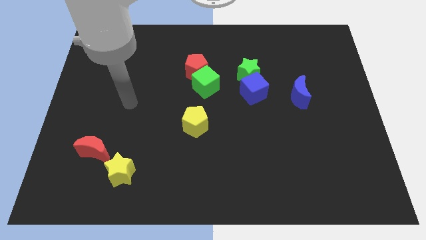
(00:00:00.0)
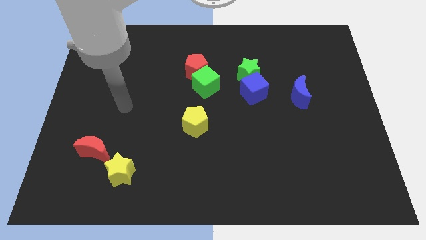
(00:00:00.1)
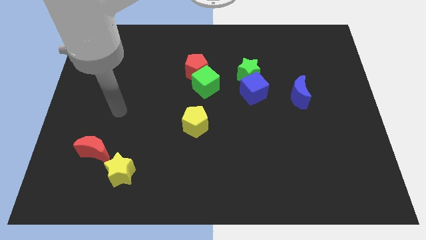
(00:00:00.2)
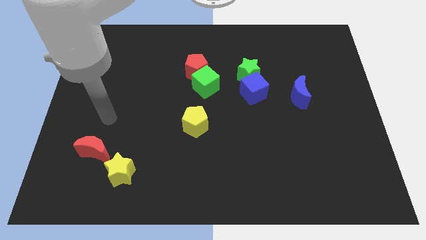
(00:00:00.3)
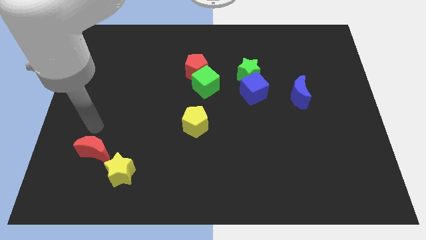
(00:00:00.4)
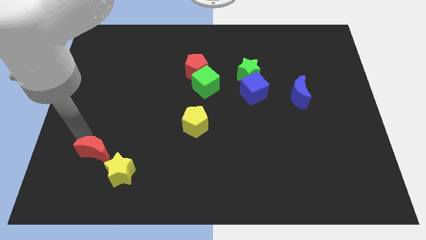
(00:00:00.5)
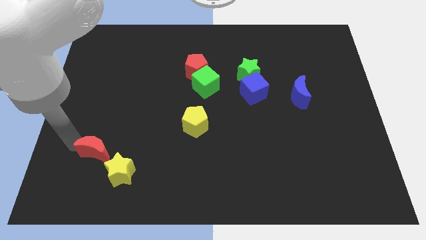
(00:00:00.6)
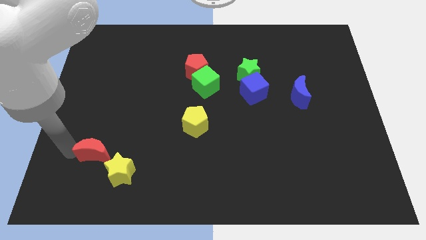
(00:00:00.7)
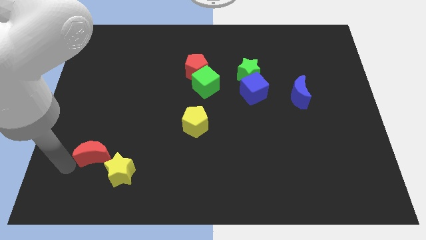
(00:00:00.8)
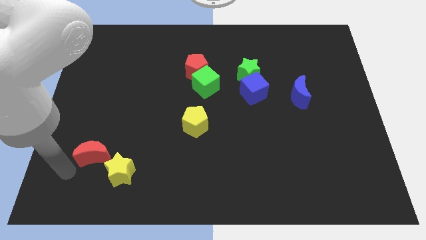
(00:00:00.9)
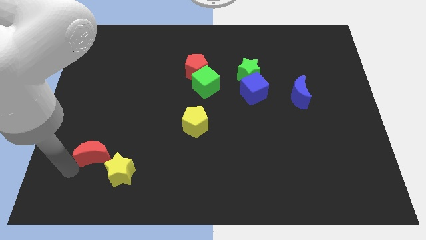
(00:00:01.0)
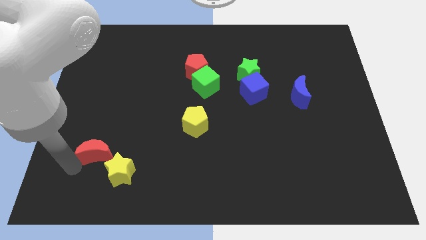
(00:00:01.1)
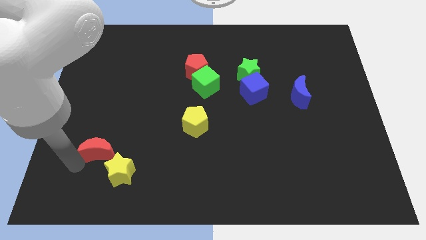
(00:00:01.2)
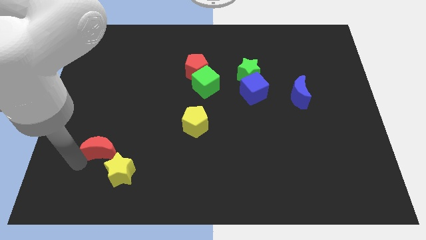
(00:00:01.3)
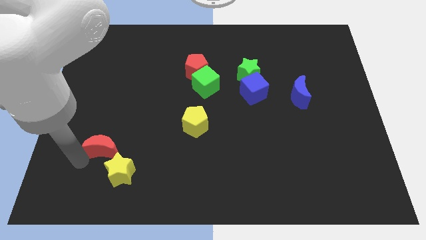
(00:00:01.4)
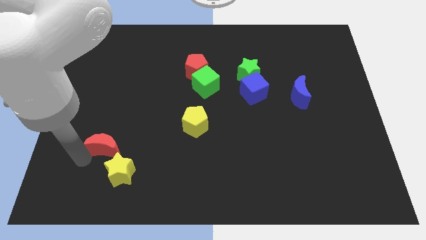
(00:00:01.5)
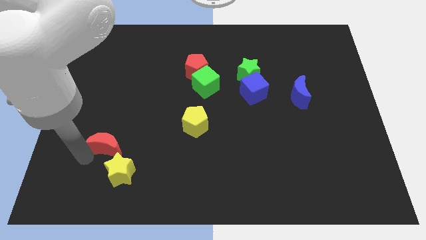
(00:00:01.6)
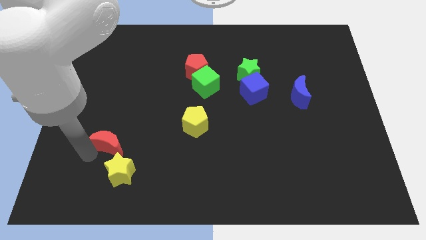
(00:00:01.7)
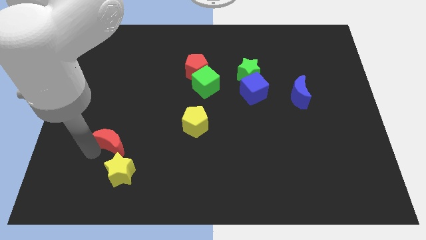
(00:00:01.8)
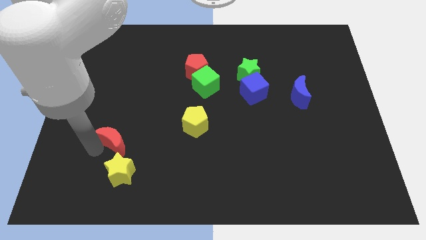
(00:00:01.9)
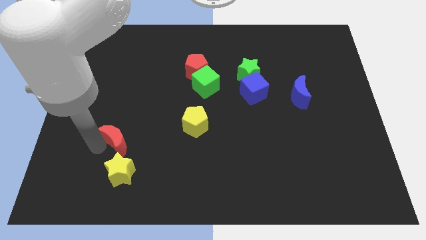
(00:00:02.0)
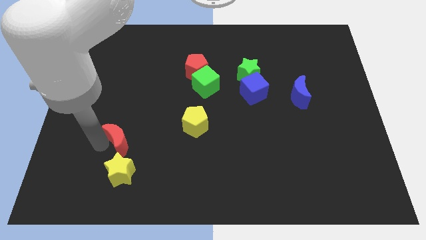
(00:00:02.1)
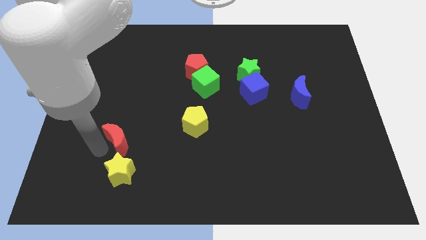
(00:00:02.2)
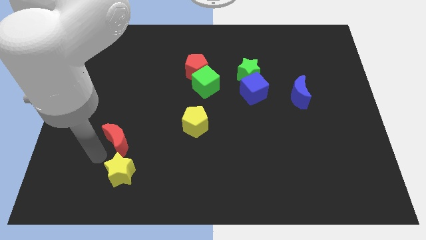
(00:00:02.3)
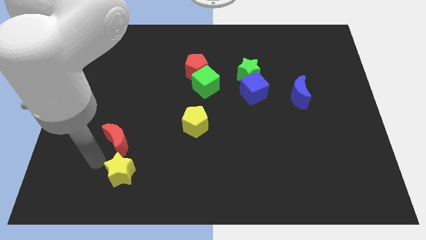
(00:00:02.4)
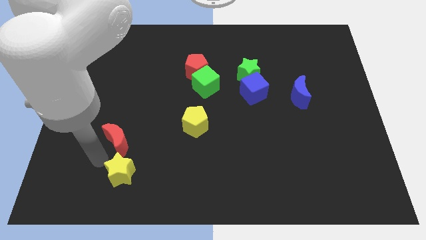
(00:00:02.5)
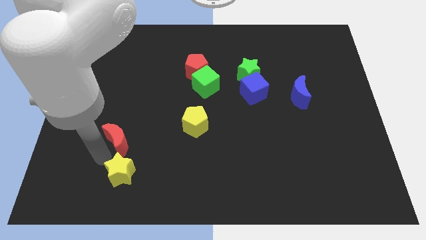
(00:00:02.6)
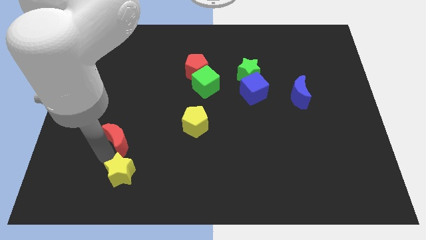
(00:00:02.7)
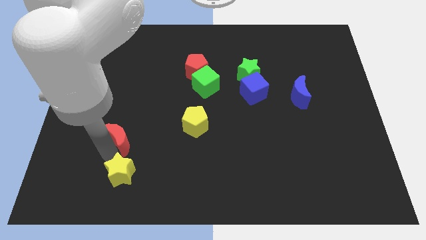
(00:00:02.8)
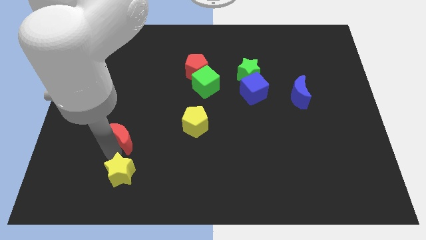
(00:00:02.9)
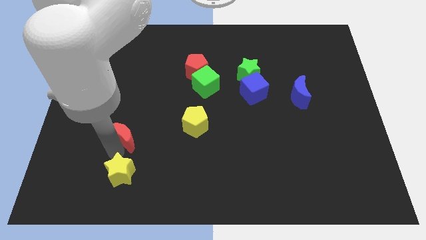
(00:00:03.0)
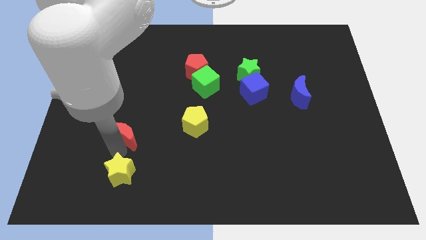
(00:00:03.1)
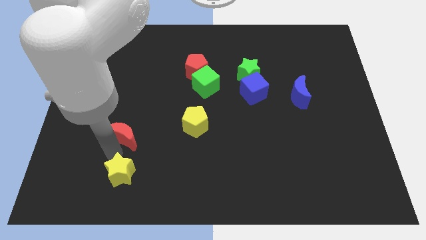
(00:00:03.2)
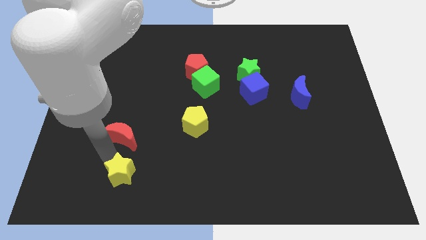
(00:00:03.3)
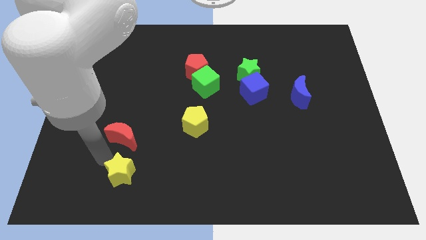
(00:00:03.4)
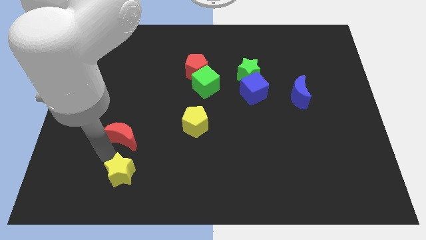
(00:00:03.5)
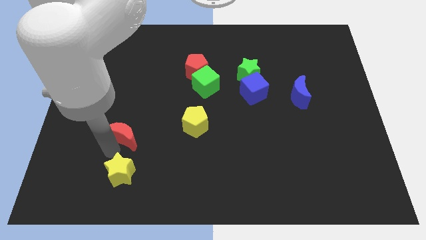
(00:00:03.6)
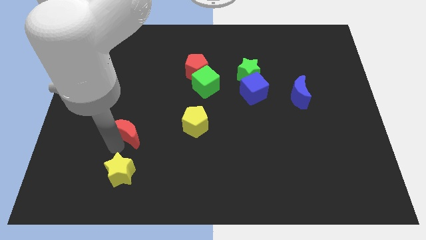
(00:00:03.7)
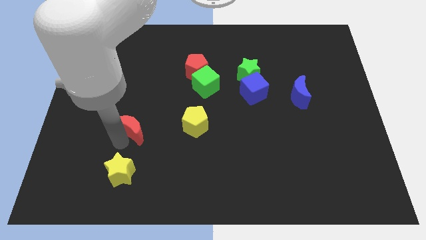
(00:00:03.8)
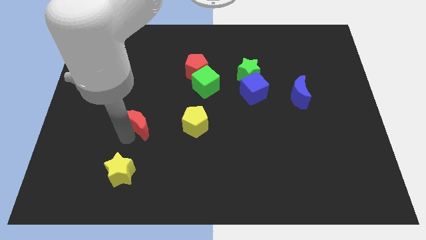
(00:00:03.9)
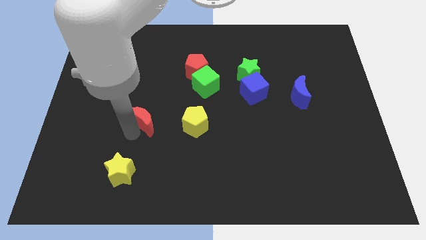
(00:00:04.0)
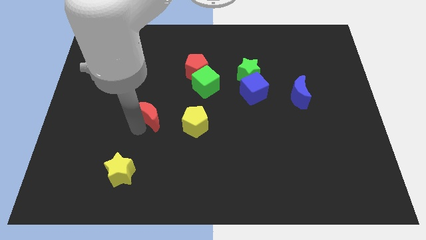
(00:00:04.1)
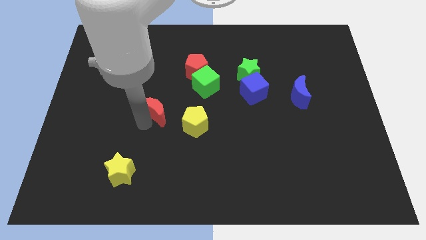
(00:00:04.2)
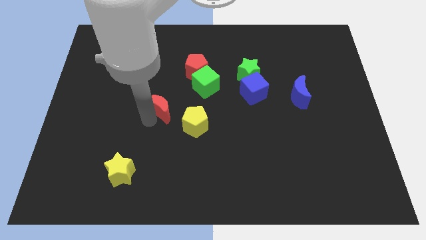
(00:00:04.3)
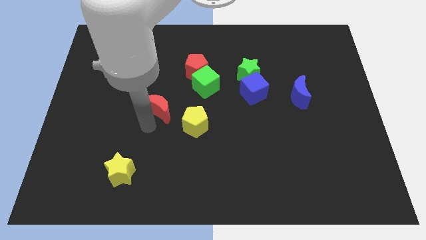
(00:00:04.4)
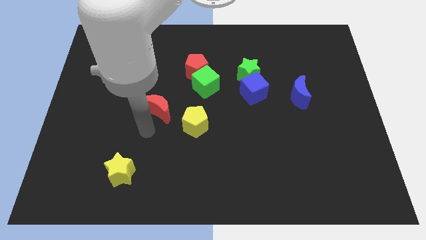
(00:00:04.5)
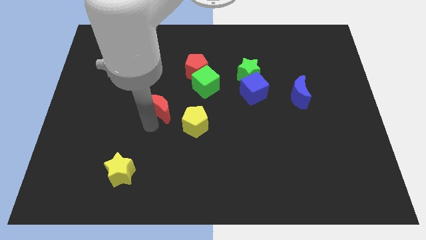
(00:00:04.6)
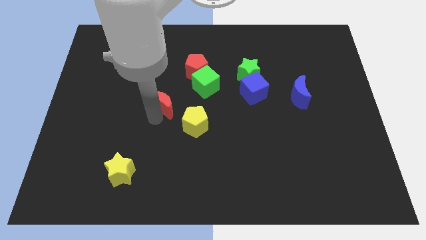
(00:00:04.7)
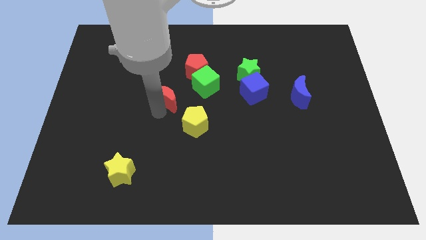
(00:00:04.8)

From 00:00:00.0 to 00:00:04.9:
slide the red moon diagonally down and to the left of the red pentagon

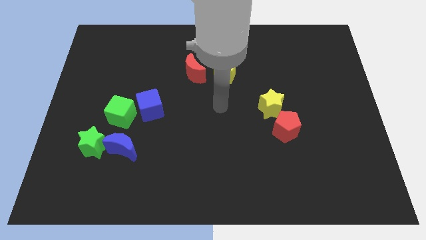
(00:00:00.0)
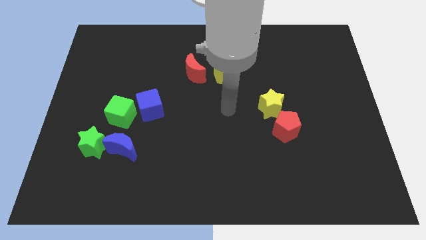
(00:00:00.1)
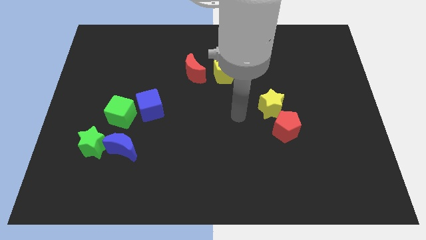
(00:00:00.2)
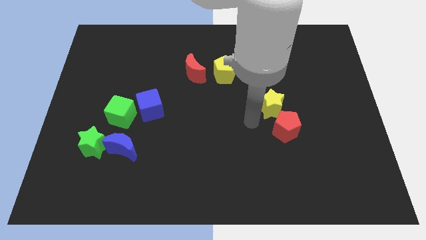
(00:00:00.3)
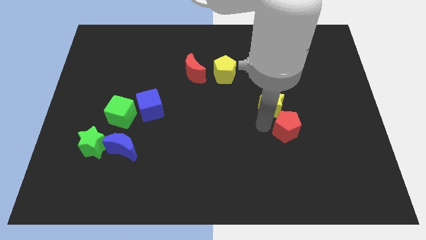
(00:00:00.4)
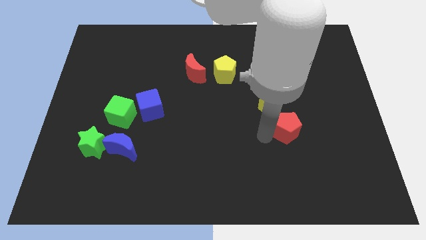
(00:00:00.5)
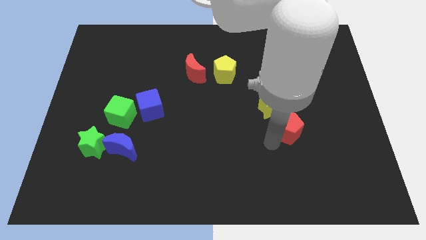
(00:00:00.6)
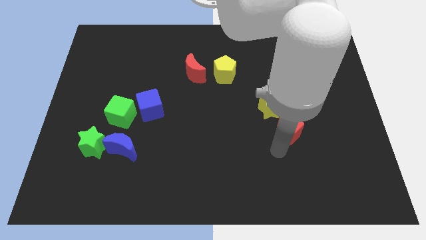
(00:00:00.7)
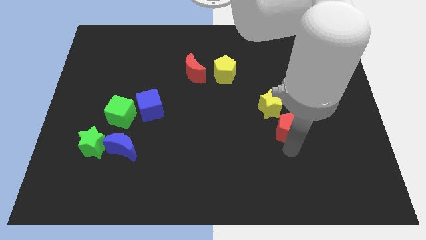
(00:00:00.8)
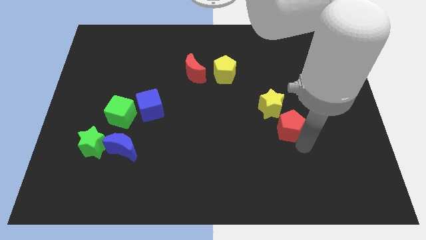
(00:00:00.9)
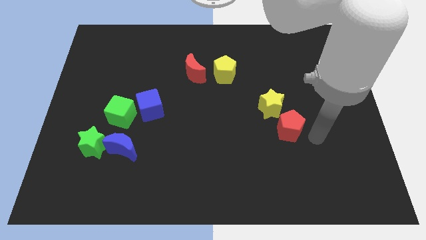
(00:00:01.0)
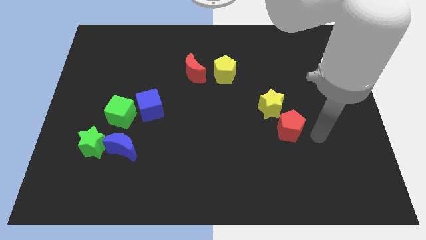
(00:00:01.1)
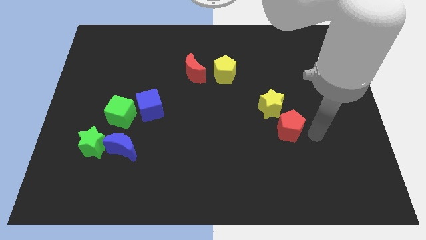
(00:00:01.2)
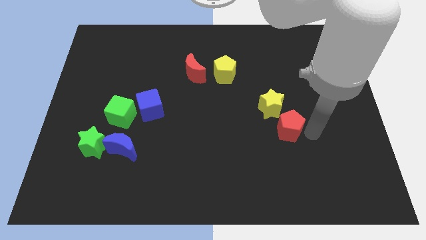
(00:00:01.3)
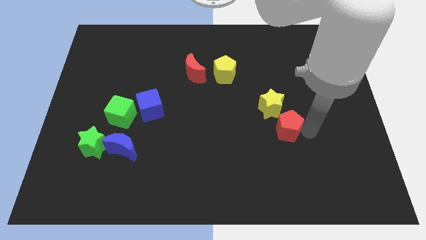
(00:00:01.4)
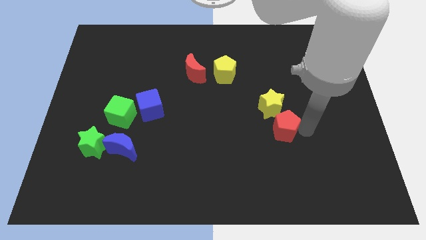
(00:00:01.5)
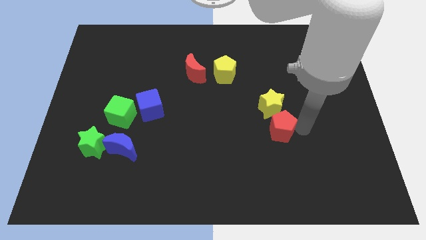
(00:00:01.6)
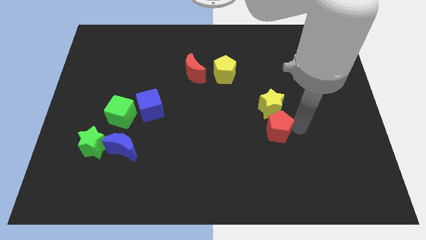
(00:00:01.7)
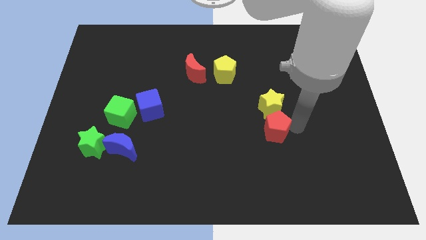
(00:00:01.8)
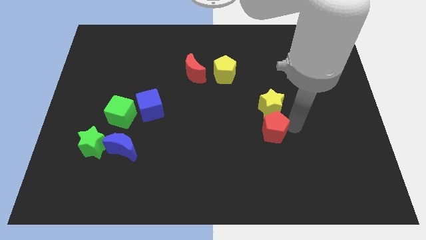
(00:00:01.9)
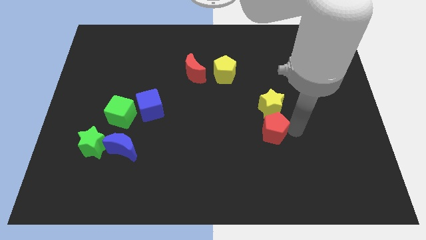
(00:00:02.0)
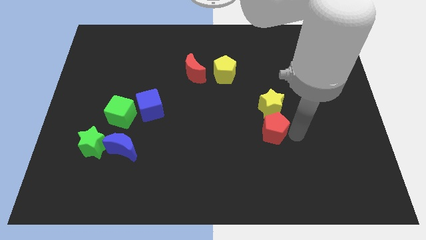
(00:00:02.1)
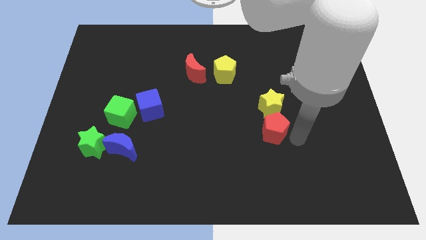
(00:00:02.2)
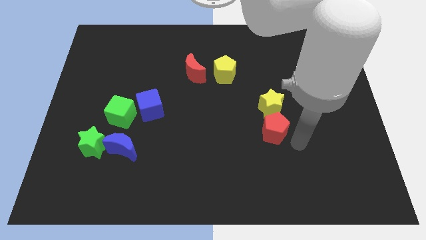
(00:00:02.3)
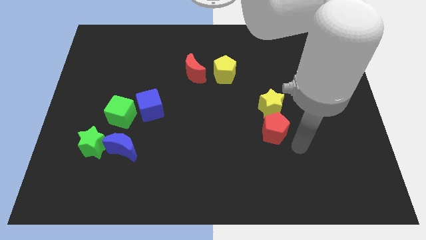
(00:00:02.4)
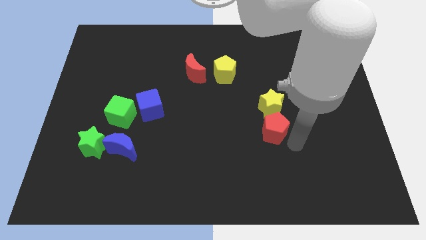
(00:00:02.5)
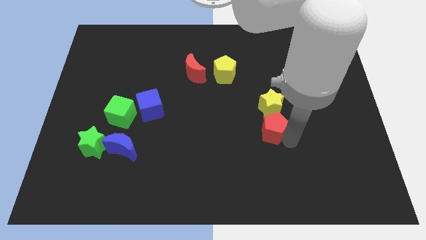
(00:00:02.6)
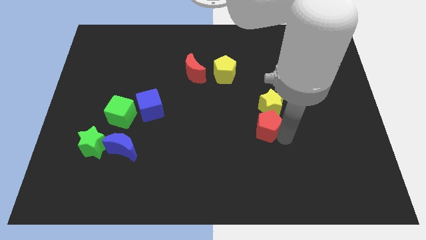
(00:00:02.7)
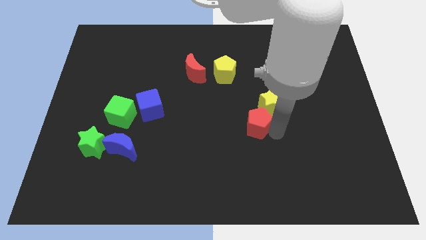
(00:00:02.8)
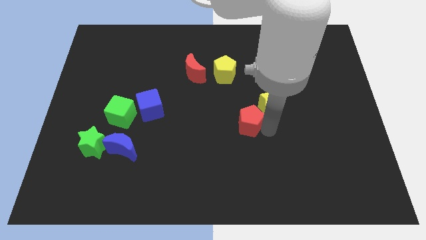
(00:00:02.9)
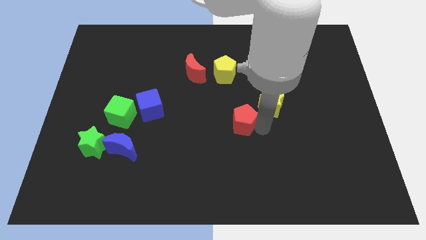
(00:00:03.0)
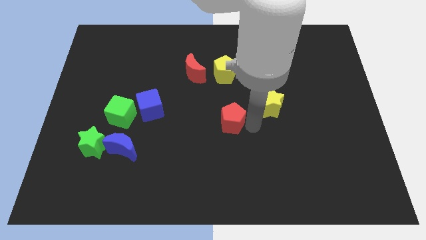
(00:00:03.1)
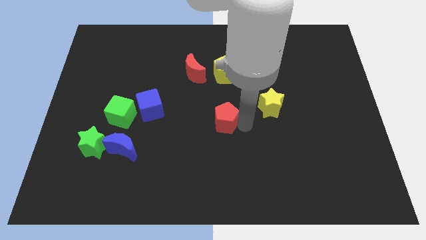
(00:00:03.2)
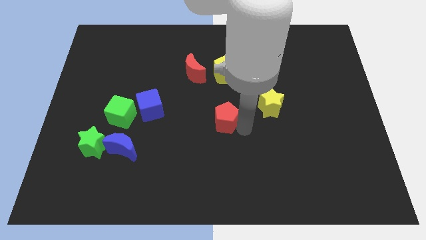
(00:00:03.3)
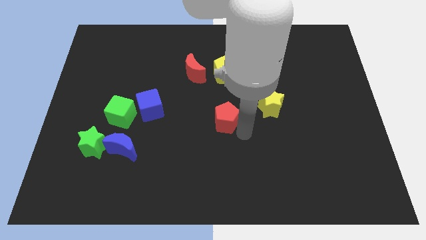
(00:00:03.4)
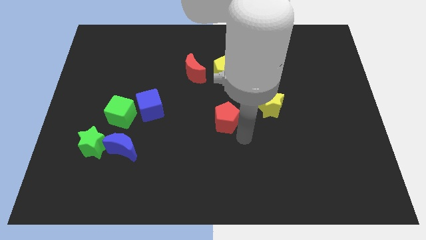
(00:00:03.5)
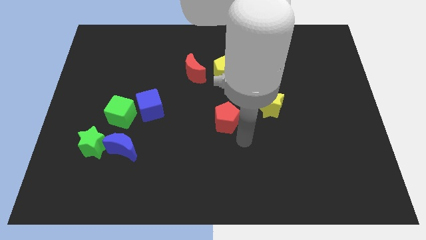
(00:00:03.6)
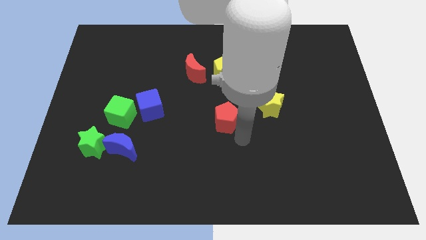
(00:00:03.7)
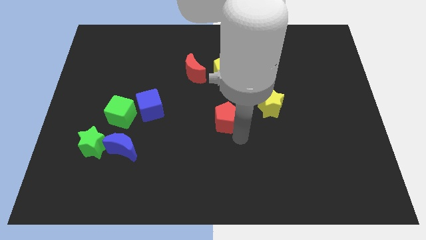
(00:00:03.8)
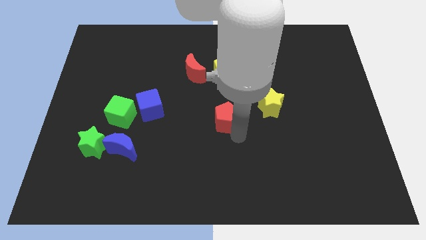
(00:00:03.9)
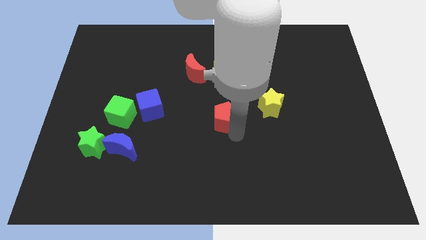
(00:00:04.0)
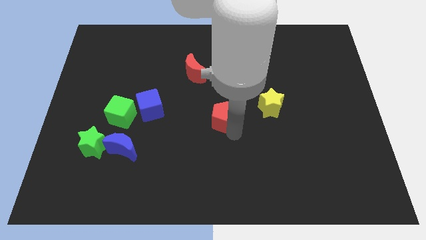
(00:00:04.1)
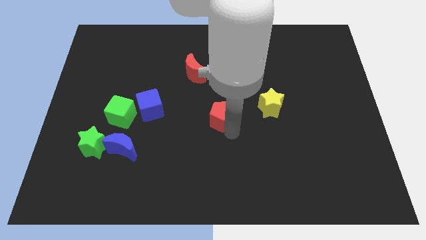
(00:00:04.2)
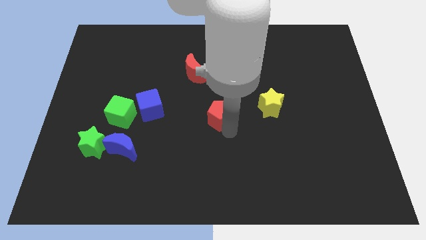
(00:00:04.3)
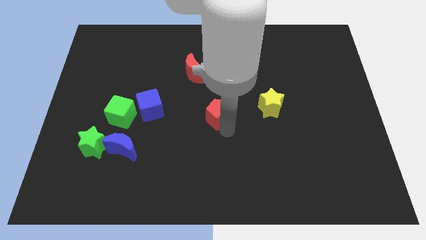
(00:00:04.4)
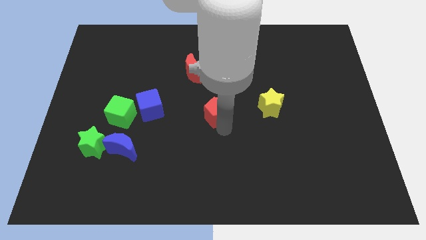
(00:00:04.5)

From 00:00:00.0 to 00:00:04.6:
put the red pentagon right of the blue cube
